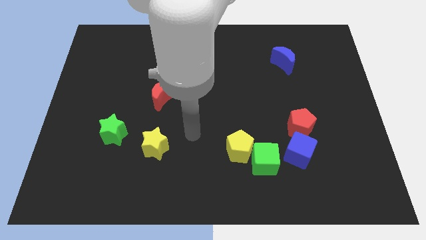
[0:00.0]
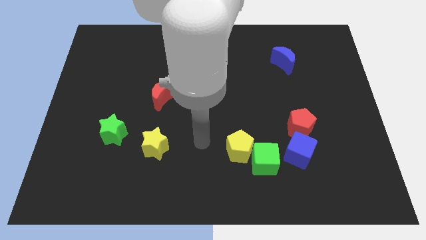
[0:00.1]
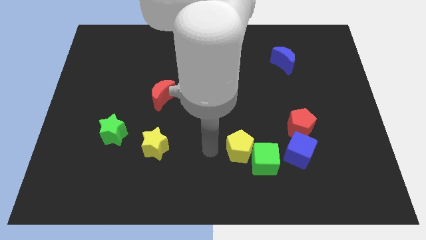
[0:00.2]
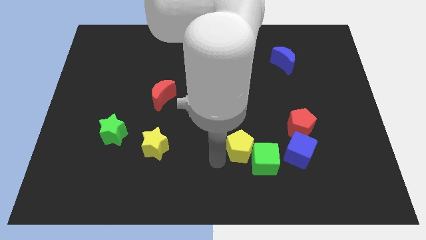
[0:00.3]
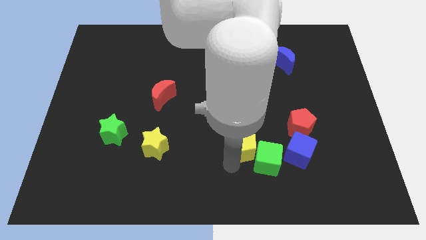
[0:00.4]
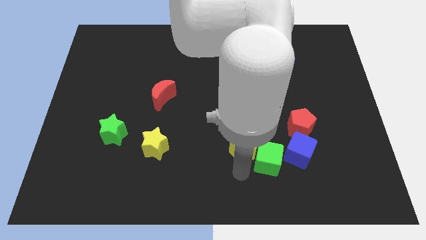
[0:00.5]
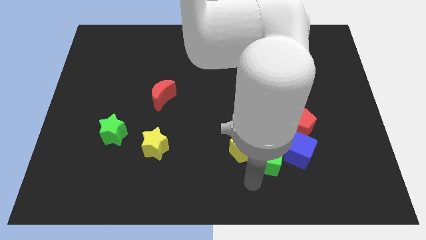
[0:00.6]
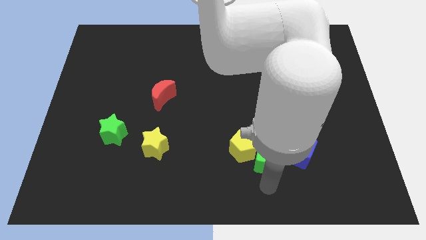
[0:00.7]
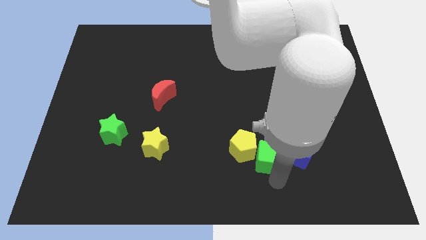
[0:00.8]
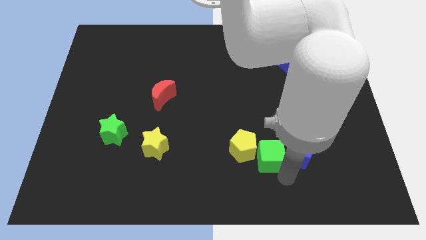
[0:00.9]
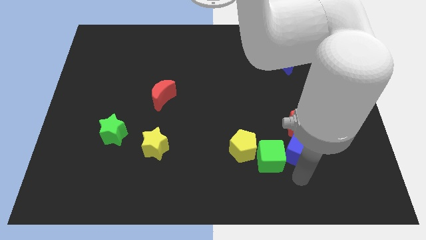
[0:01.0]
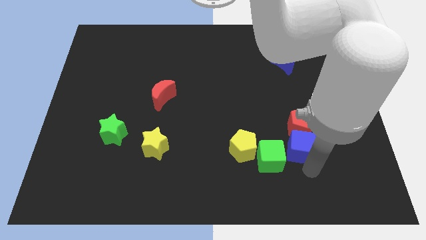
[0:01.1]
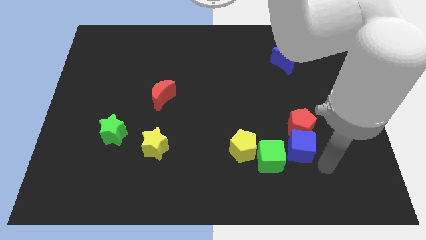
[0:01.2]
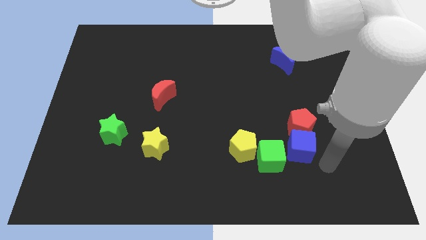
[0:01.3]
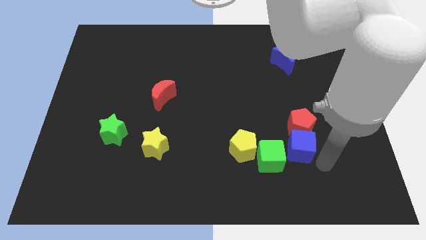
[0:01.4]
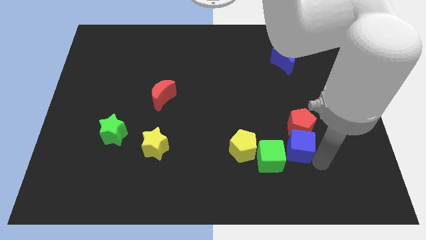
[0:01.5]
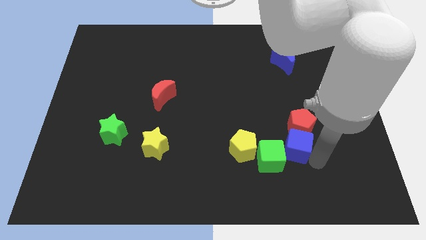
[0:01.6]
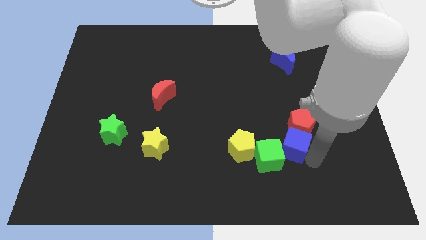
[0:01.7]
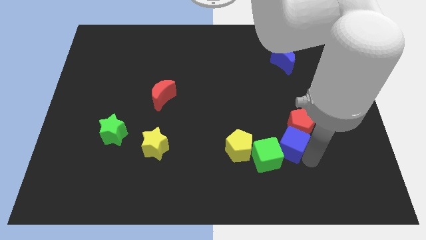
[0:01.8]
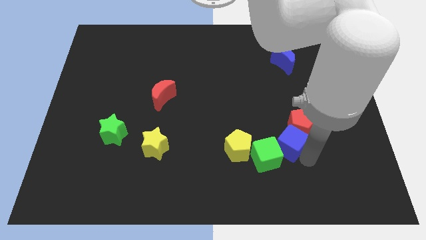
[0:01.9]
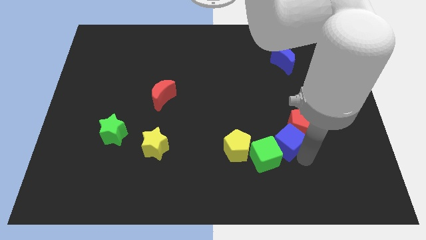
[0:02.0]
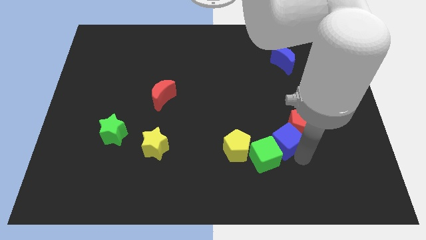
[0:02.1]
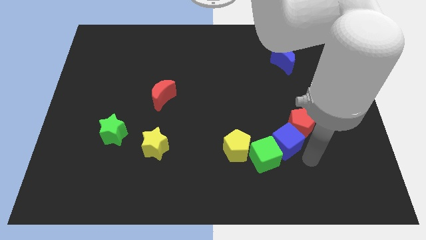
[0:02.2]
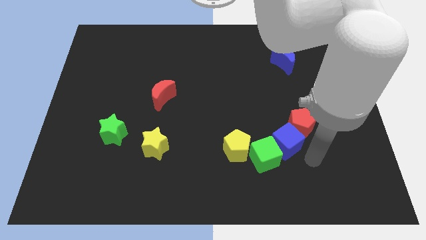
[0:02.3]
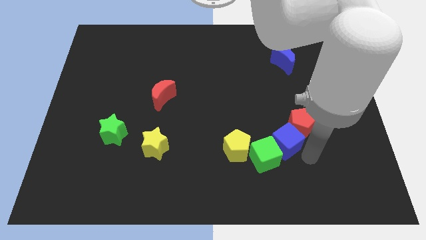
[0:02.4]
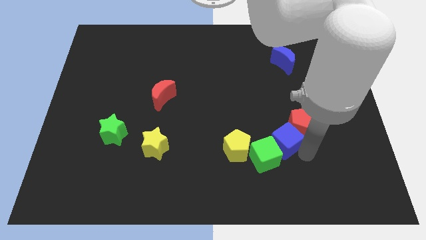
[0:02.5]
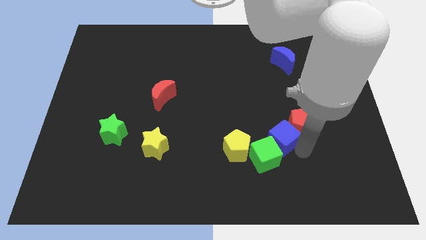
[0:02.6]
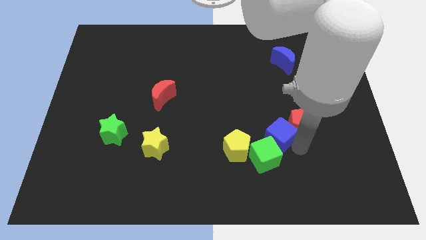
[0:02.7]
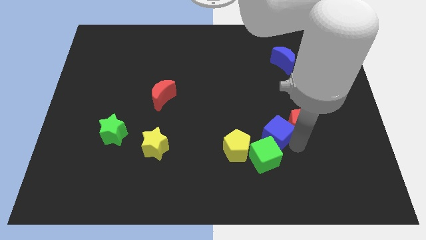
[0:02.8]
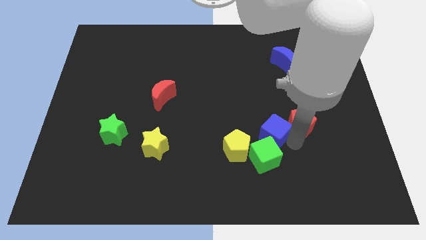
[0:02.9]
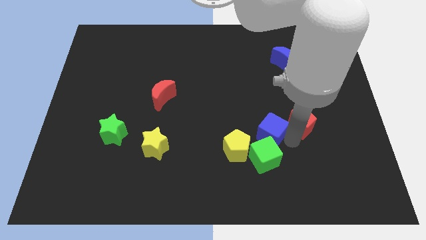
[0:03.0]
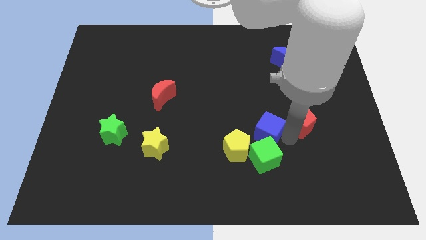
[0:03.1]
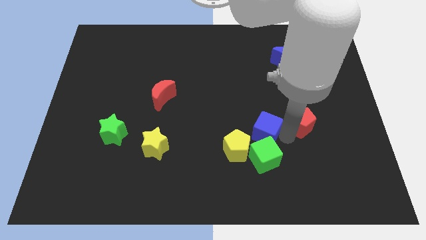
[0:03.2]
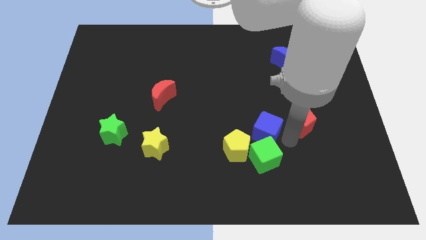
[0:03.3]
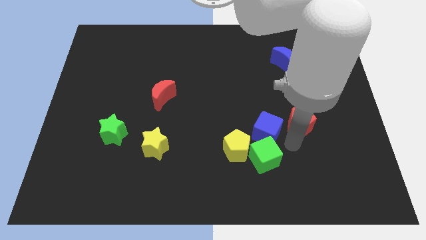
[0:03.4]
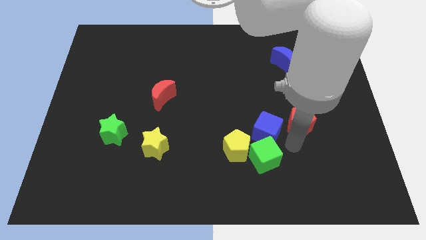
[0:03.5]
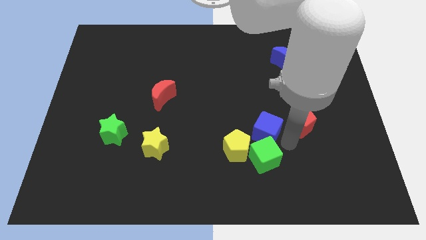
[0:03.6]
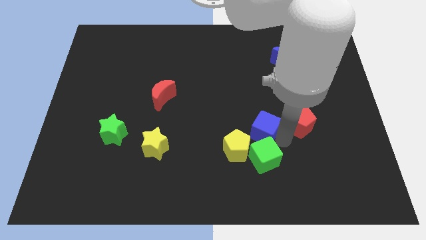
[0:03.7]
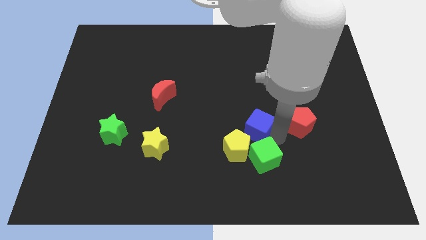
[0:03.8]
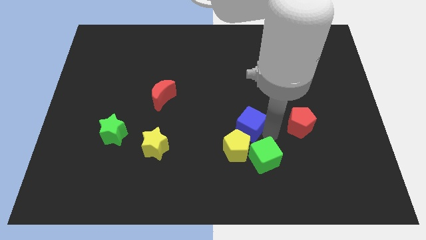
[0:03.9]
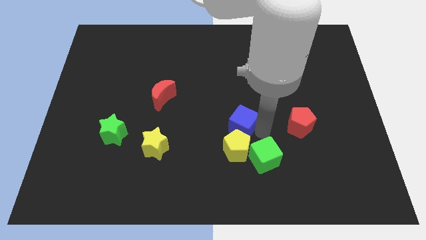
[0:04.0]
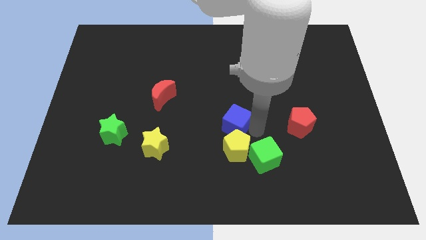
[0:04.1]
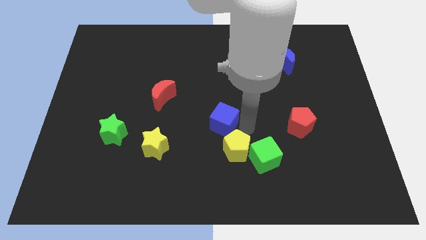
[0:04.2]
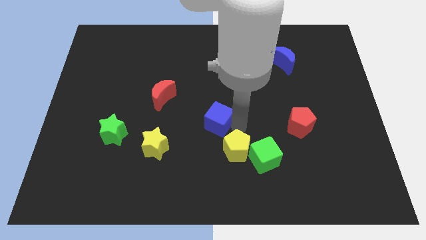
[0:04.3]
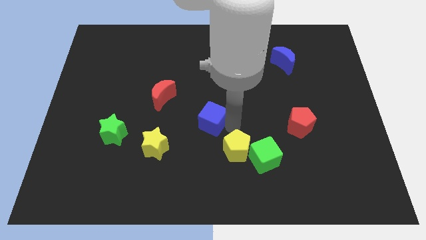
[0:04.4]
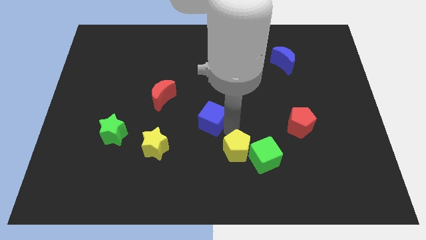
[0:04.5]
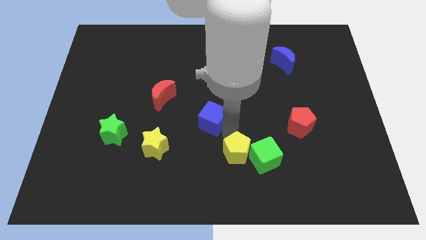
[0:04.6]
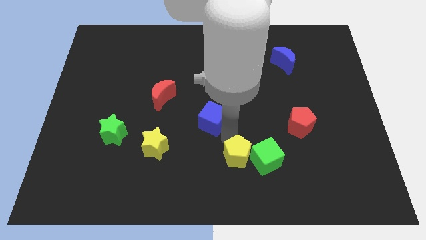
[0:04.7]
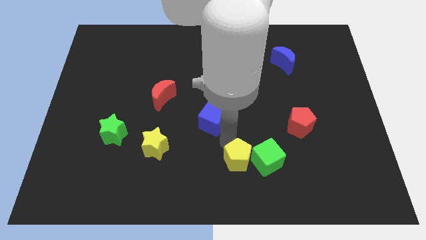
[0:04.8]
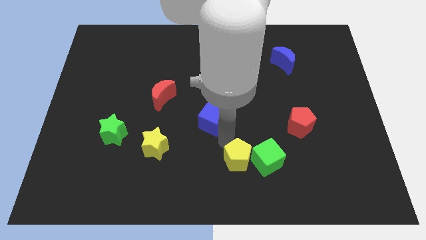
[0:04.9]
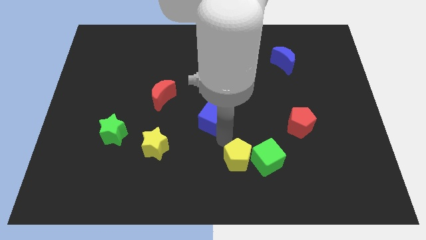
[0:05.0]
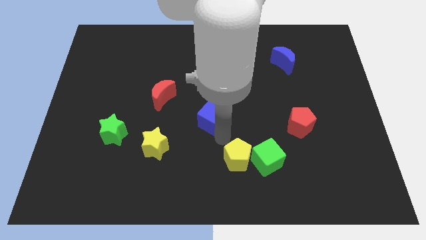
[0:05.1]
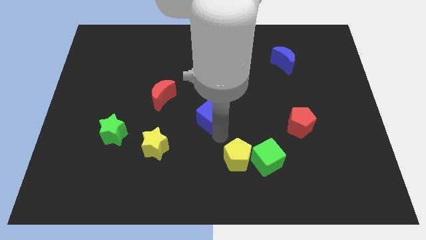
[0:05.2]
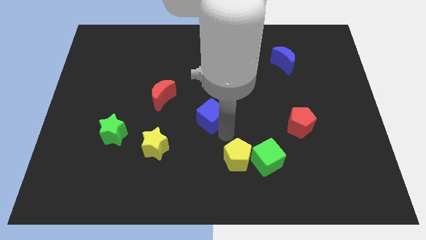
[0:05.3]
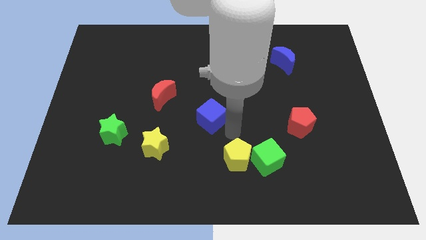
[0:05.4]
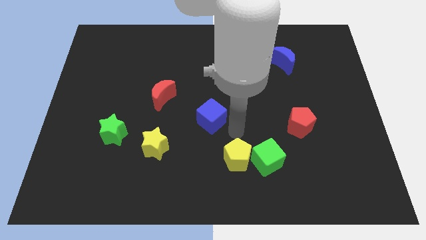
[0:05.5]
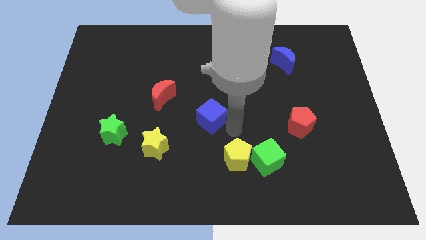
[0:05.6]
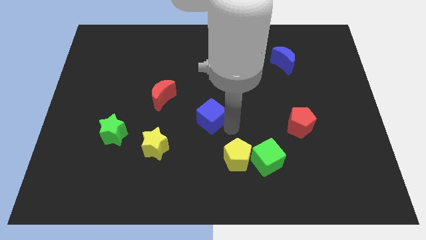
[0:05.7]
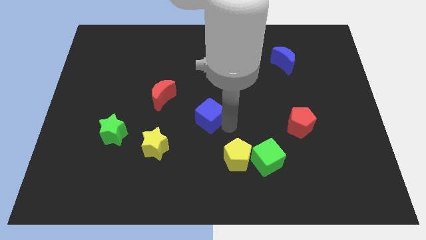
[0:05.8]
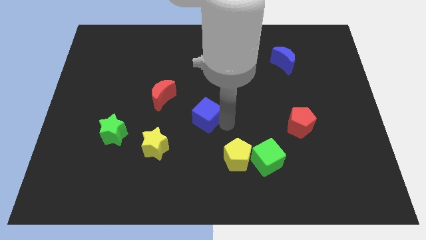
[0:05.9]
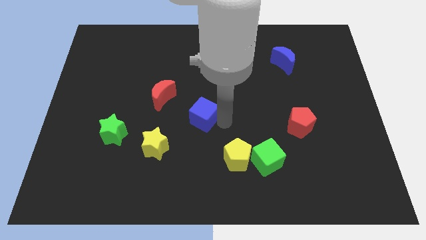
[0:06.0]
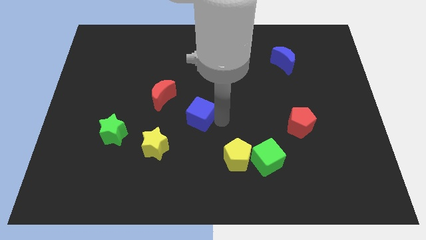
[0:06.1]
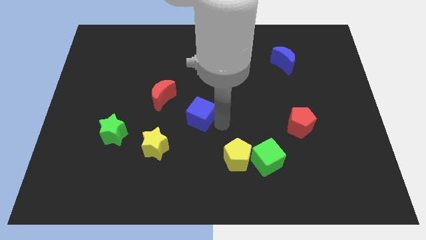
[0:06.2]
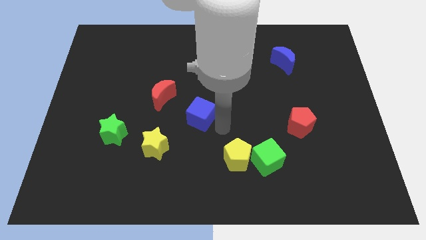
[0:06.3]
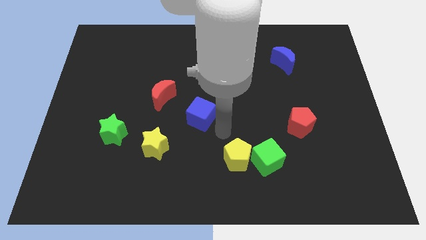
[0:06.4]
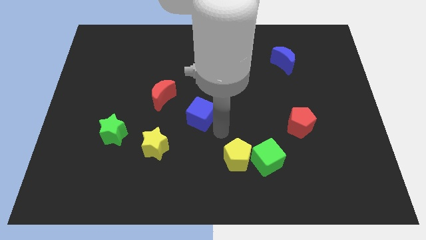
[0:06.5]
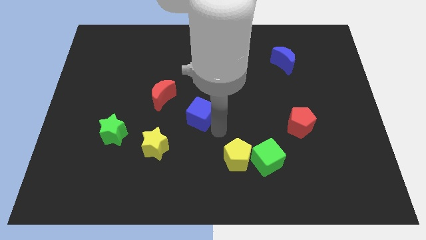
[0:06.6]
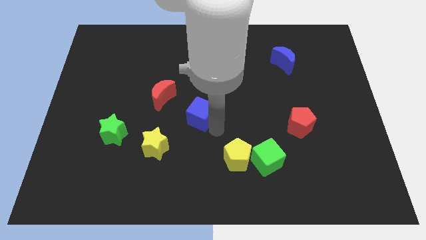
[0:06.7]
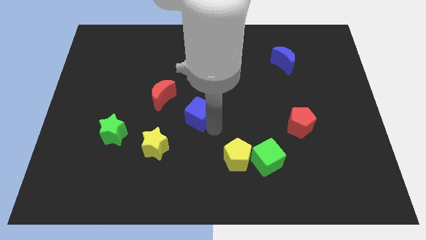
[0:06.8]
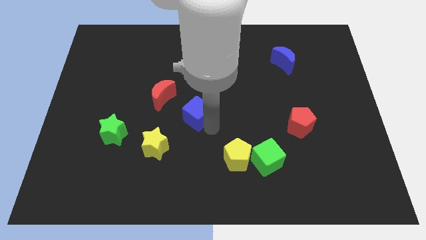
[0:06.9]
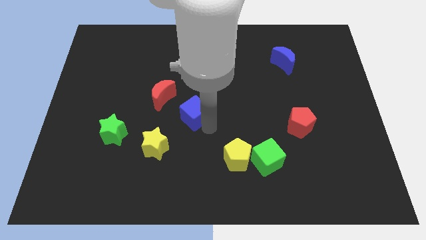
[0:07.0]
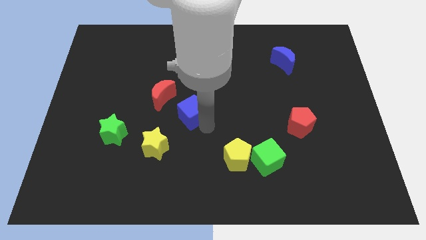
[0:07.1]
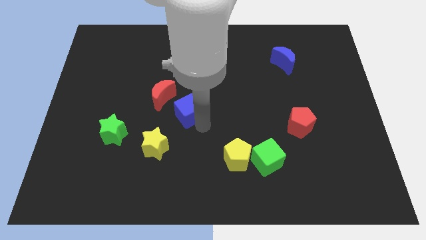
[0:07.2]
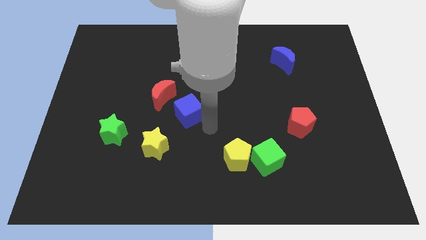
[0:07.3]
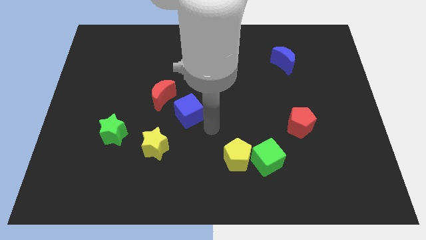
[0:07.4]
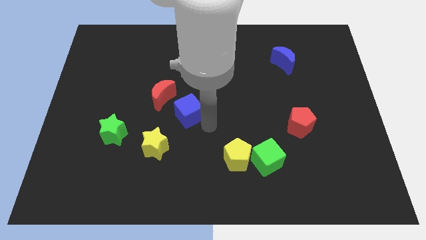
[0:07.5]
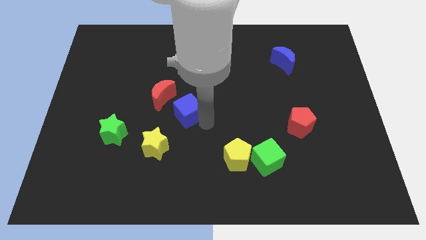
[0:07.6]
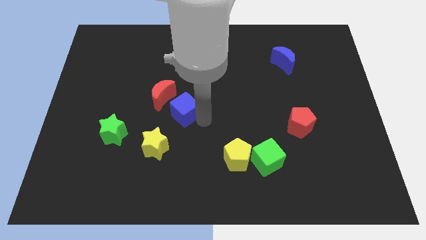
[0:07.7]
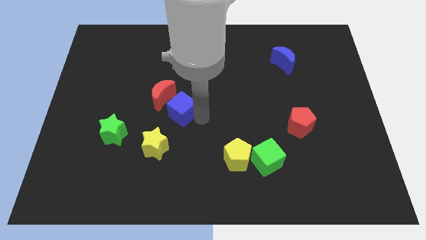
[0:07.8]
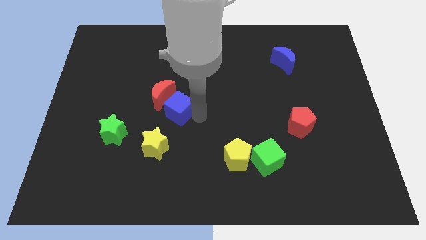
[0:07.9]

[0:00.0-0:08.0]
push the blue cube to the red moon
